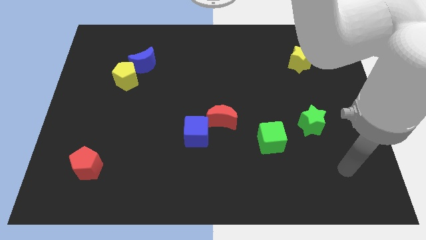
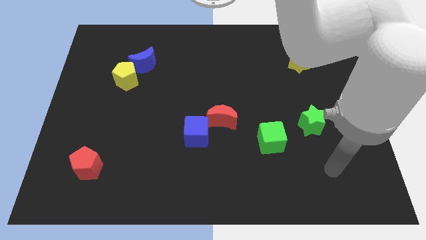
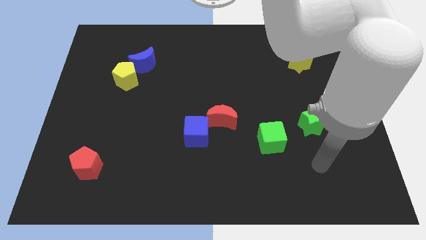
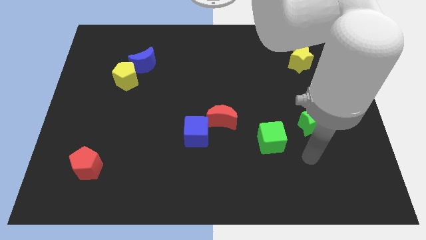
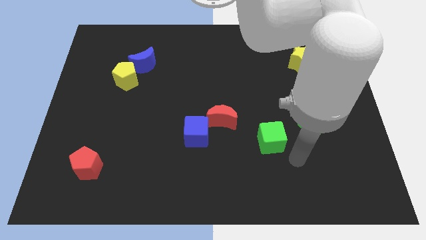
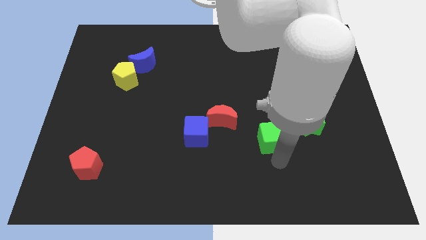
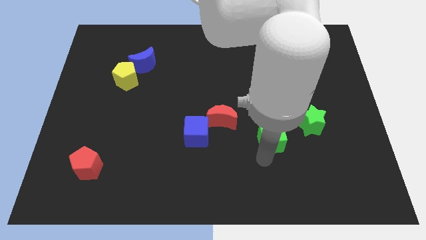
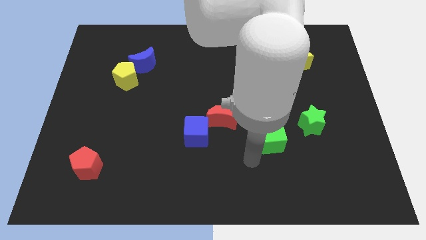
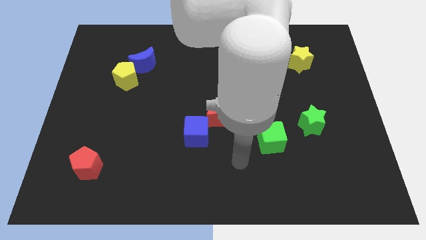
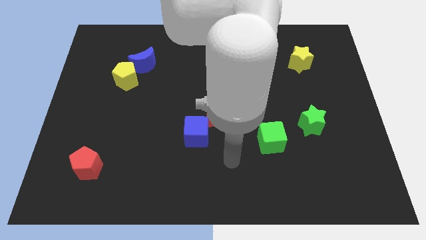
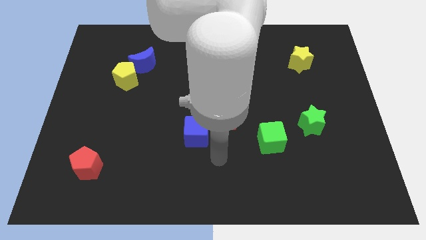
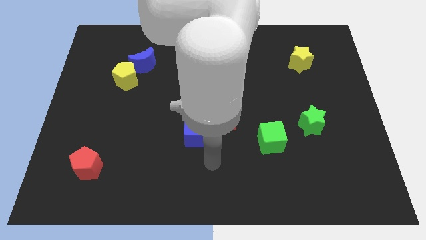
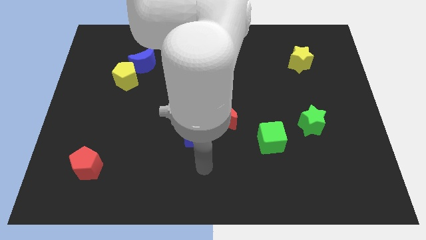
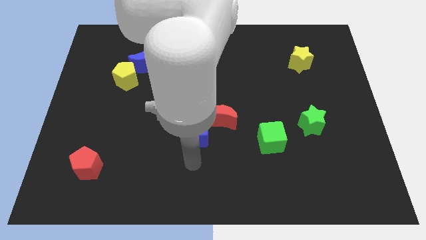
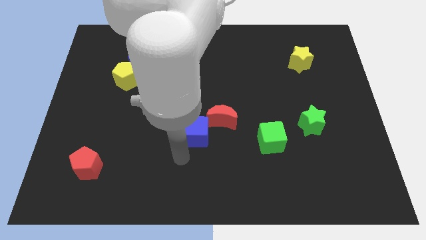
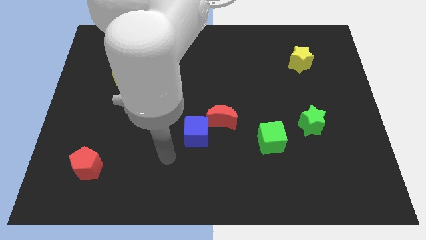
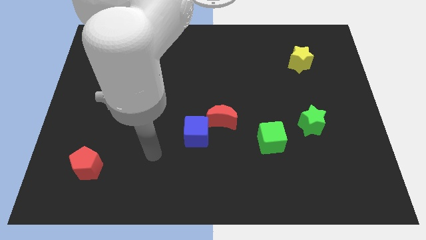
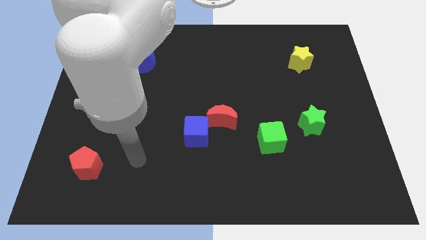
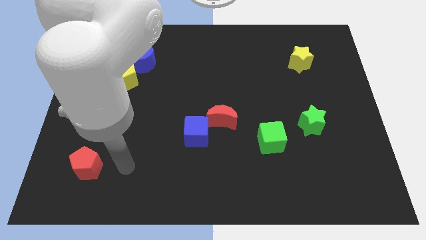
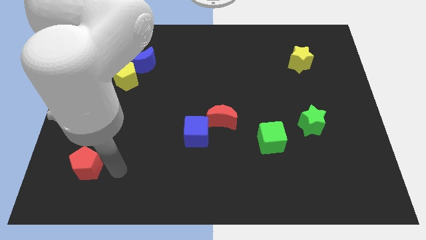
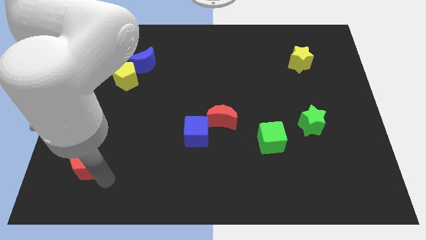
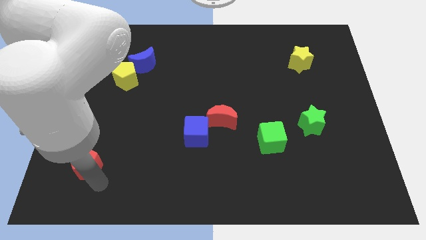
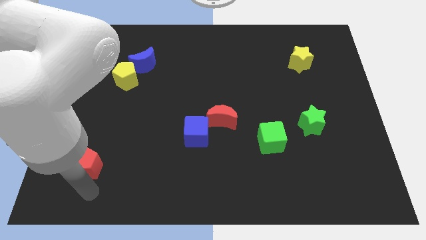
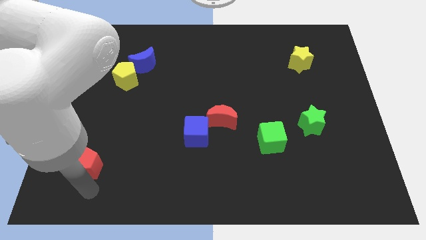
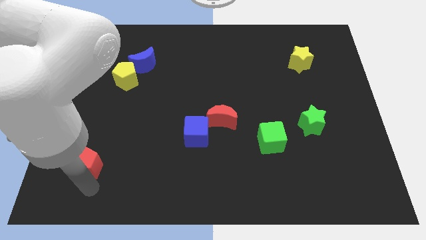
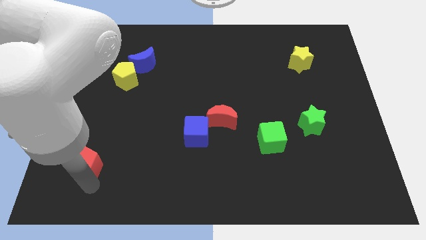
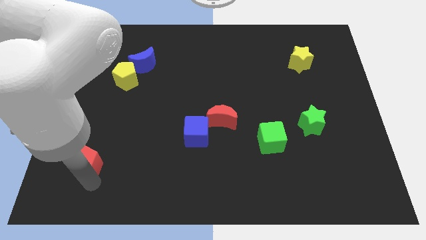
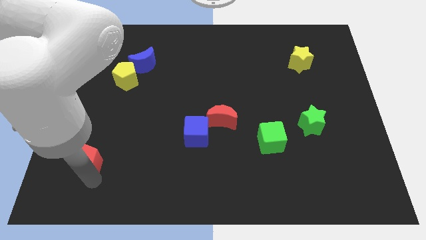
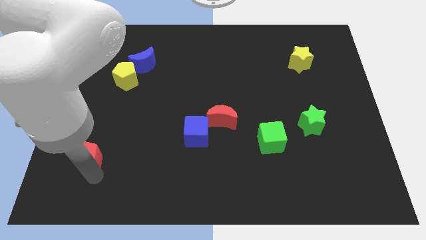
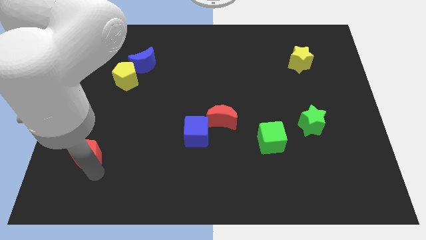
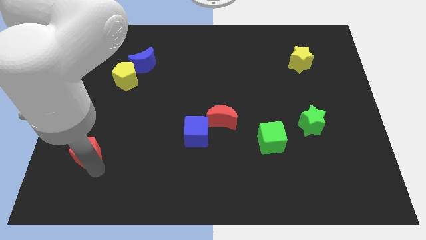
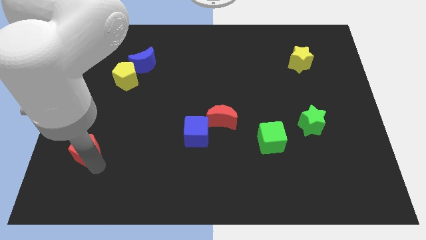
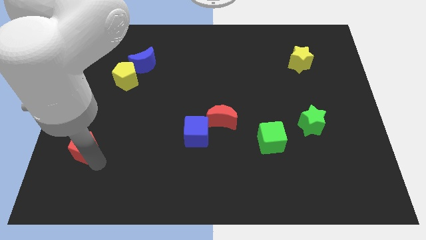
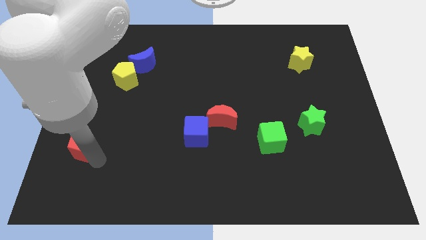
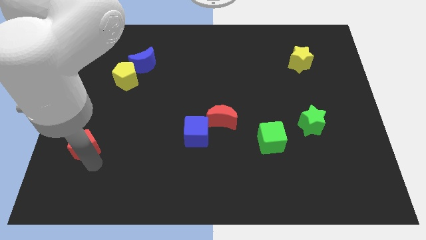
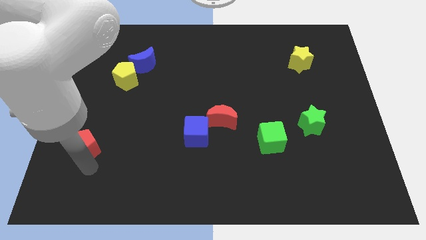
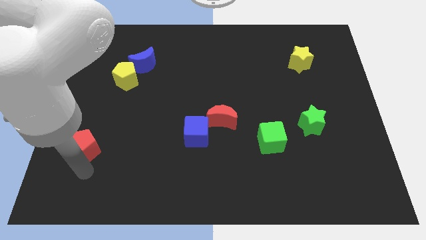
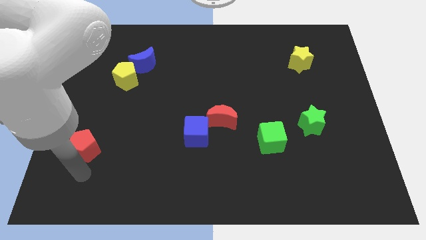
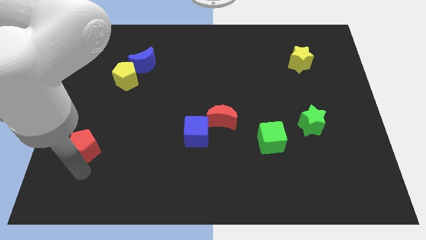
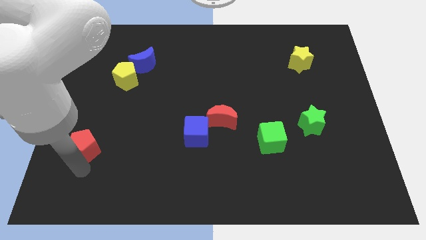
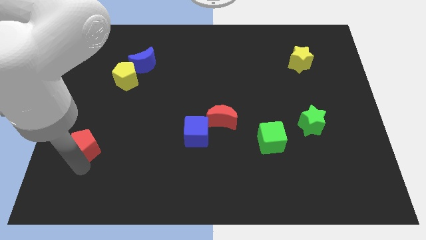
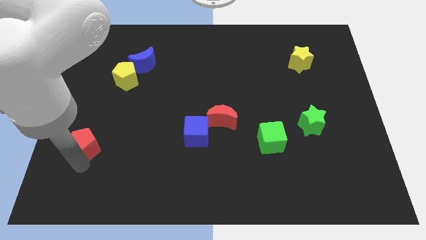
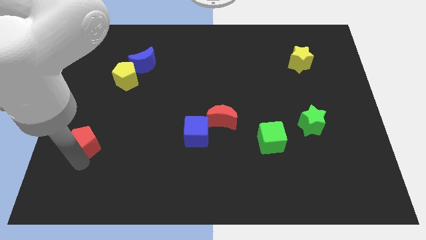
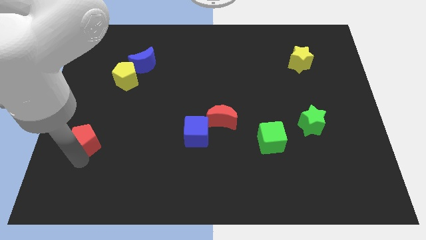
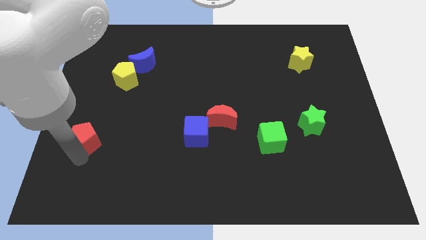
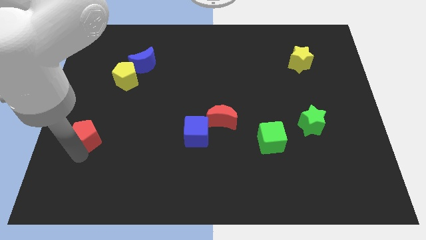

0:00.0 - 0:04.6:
slightly push the red pentagon upwards

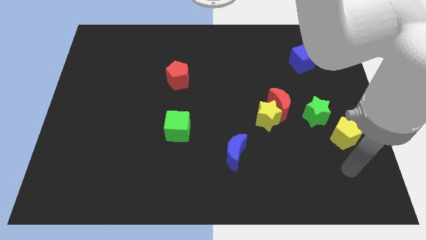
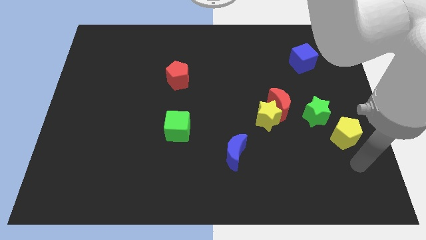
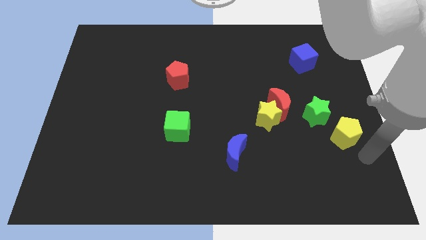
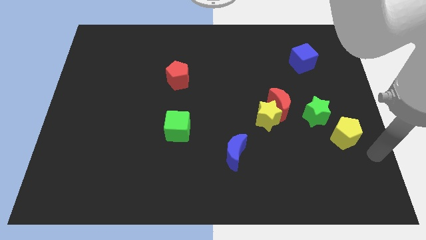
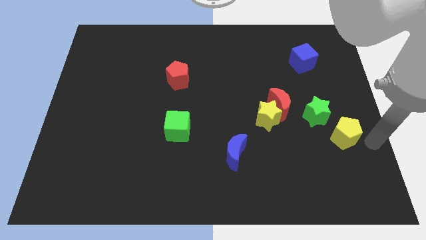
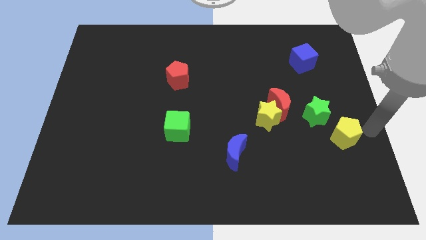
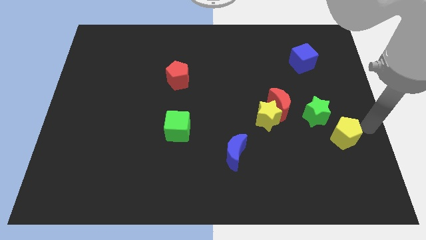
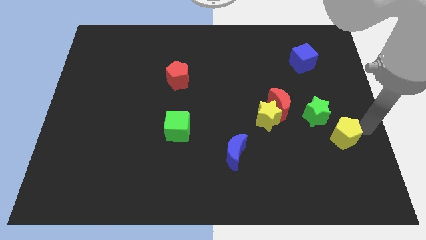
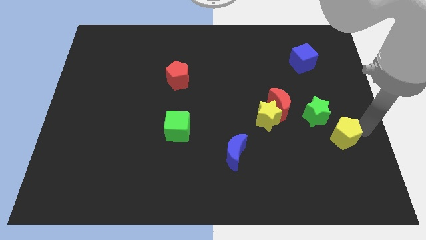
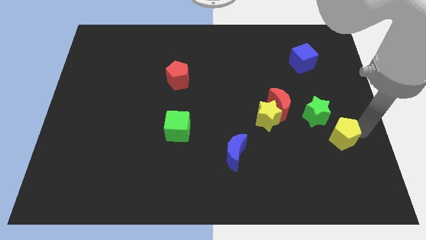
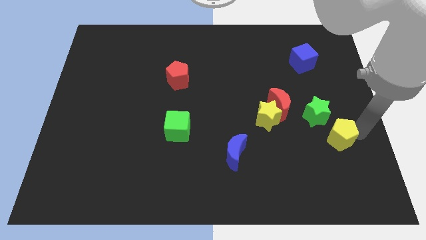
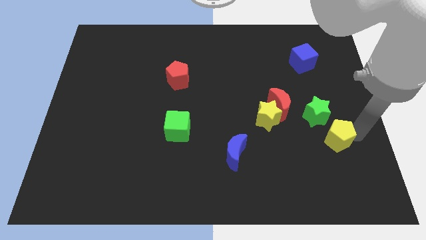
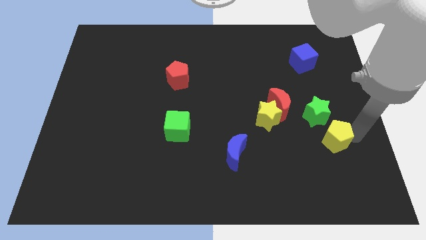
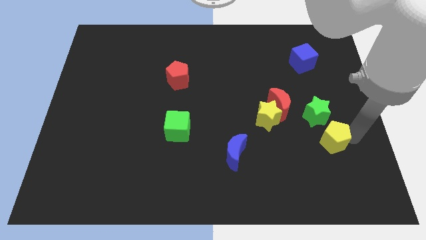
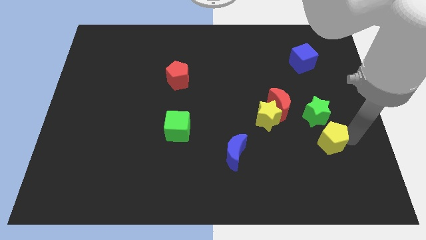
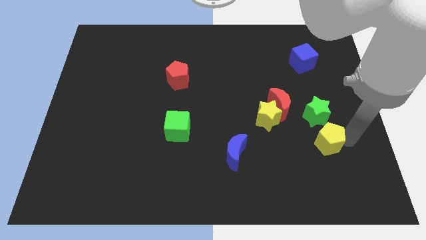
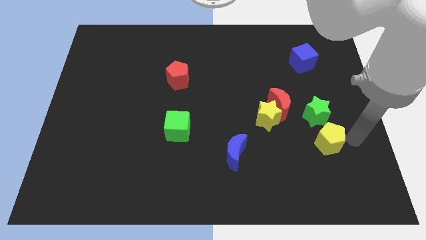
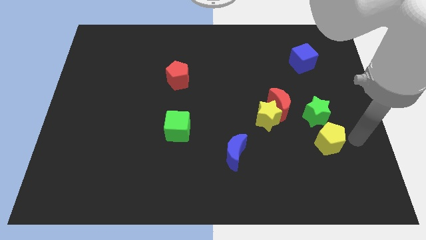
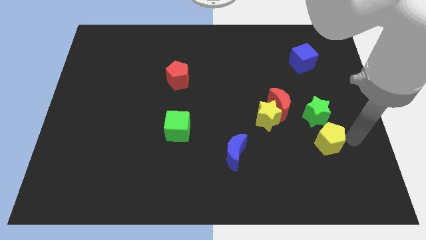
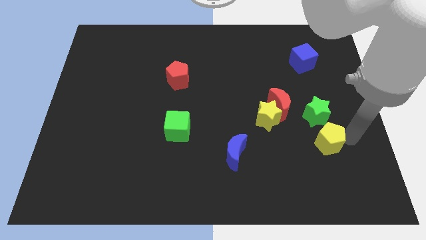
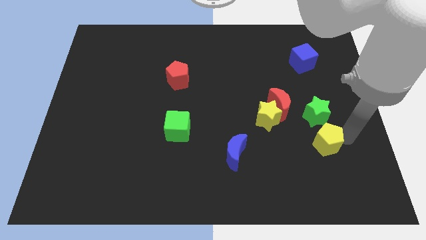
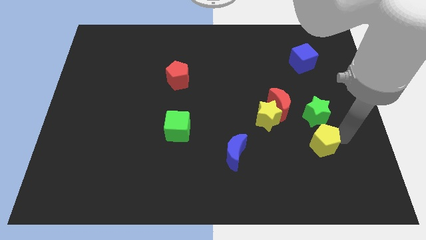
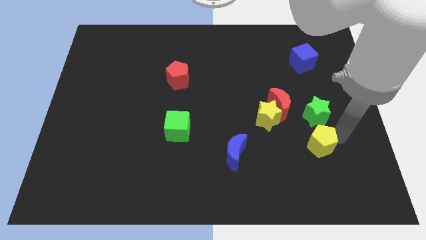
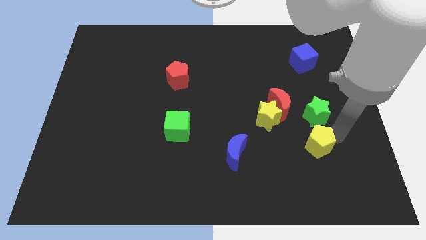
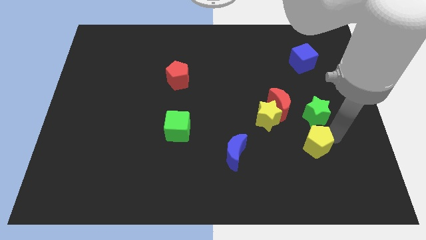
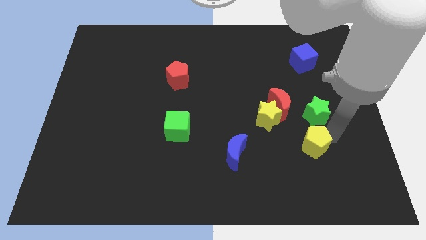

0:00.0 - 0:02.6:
move the yellow pentagon to the left a little bit

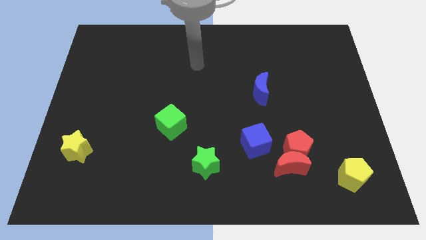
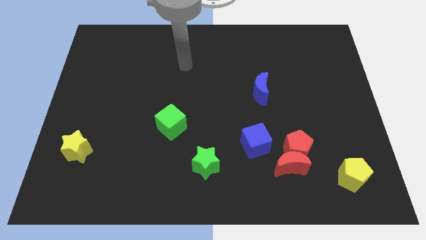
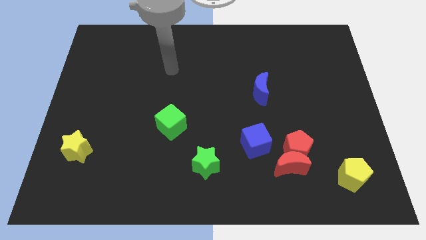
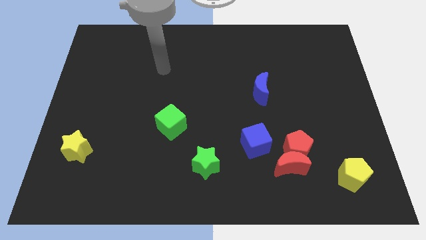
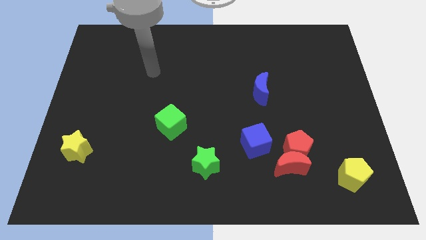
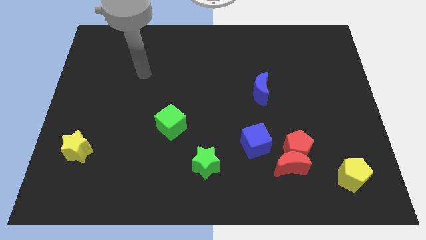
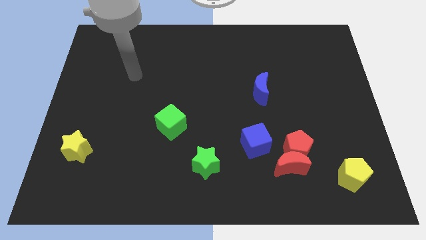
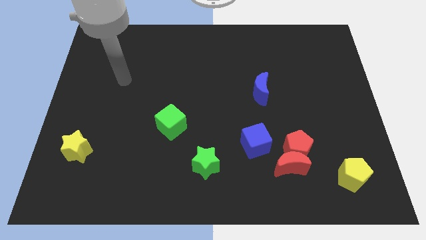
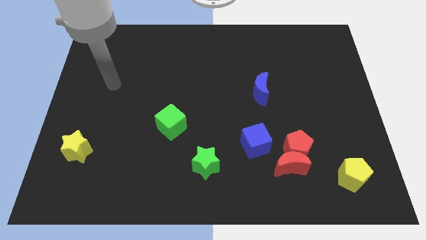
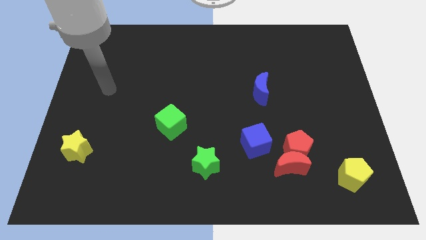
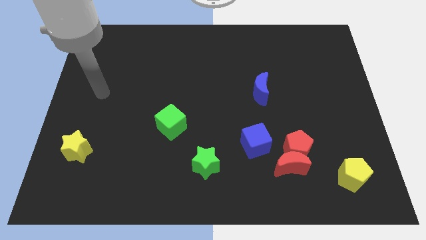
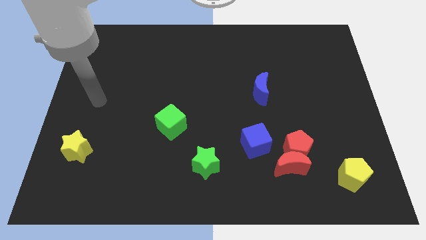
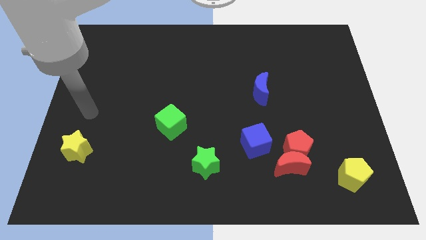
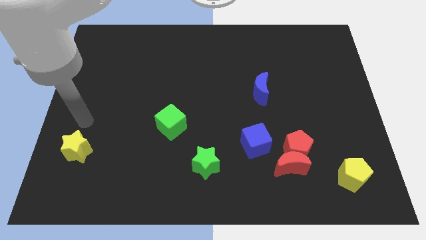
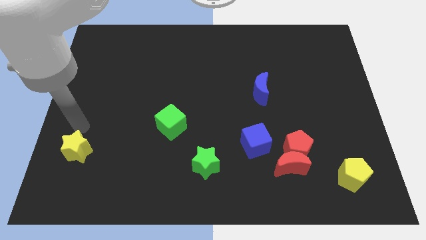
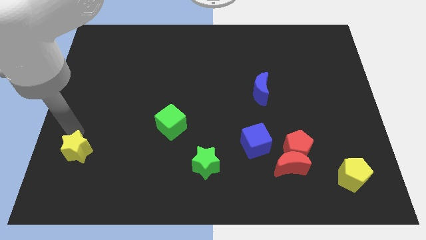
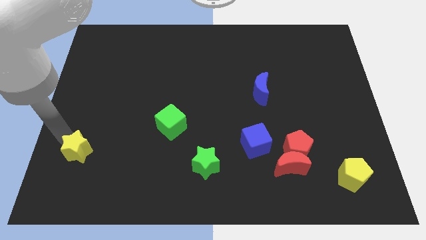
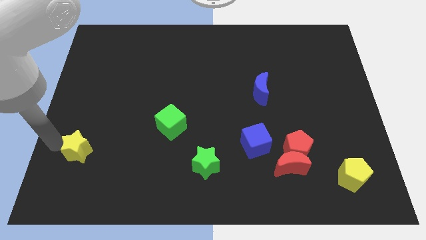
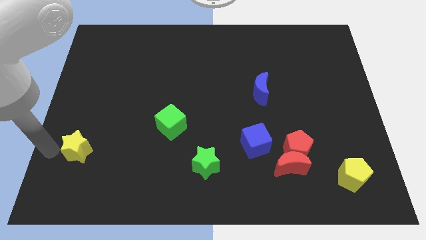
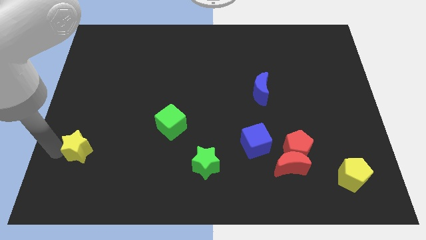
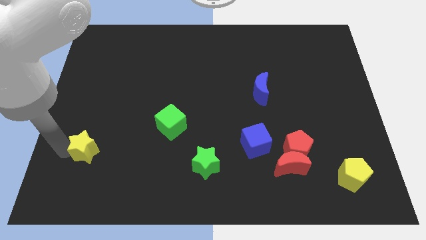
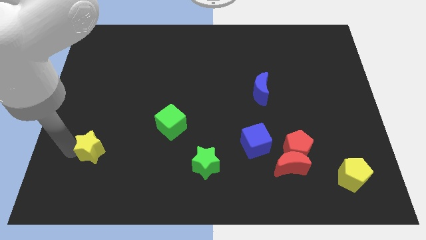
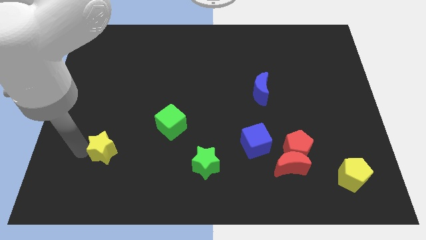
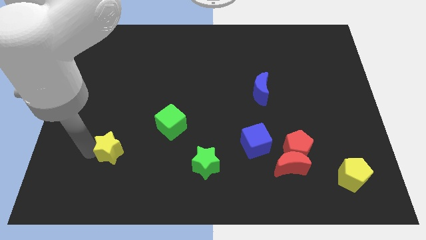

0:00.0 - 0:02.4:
push the yellow star slightly right
